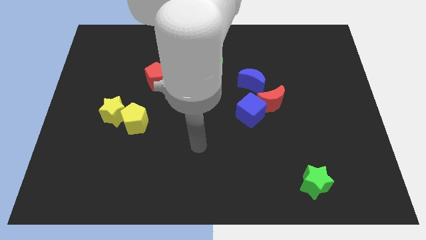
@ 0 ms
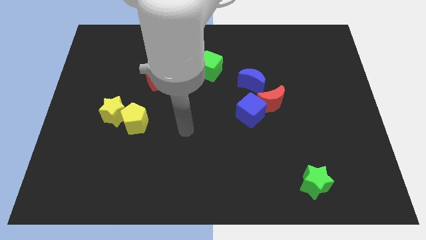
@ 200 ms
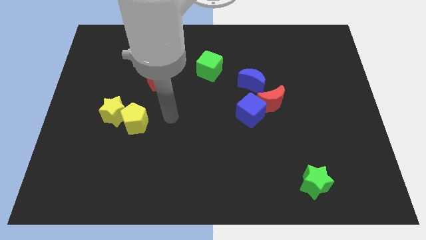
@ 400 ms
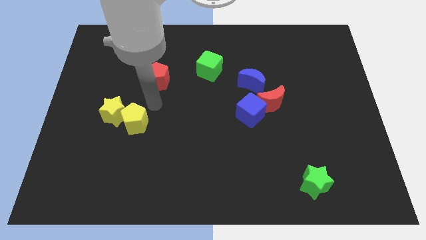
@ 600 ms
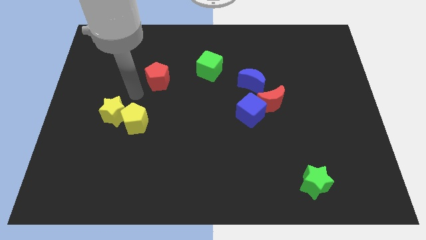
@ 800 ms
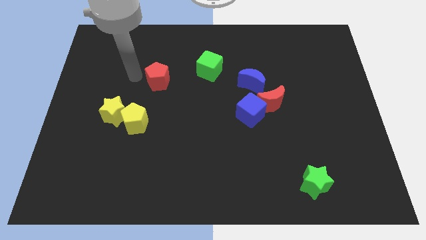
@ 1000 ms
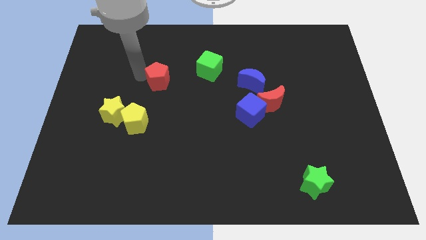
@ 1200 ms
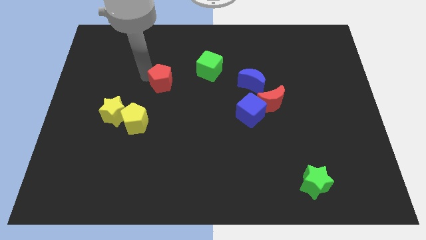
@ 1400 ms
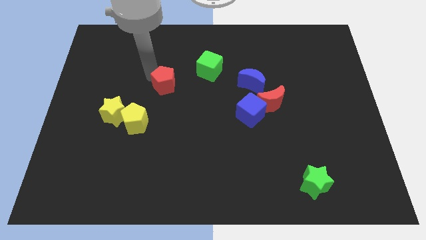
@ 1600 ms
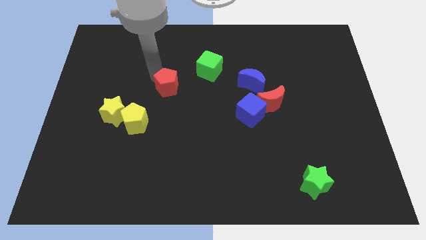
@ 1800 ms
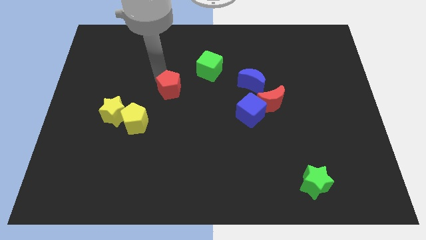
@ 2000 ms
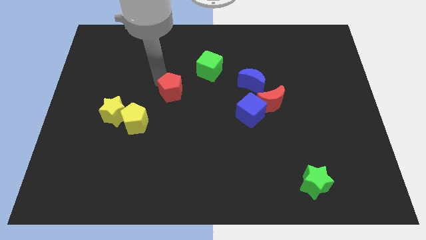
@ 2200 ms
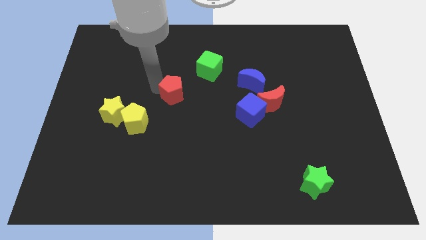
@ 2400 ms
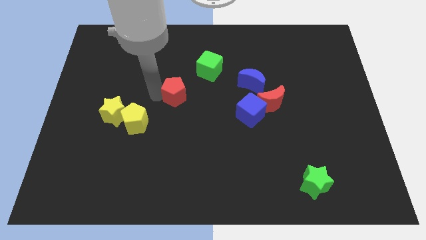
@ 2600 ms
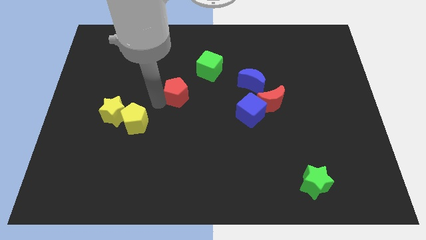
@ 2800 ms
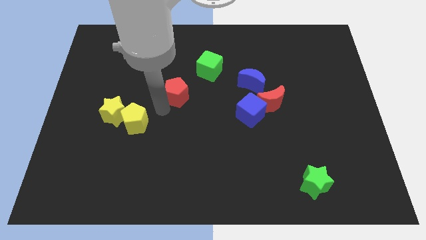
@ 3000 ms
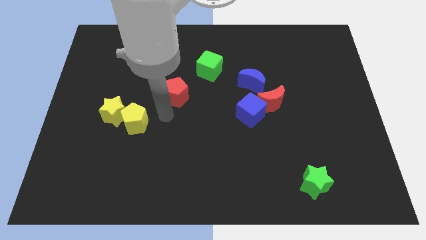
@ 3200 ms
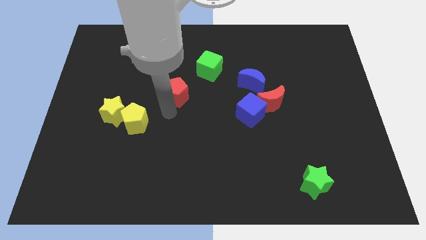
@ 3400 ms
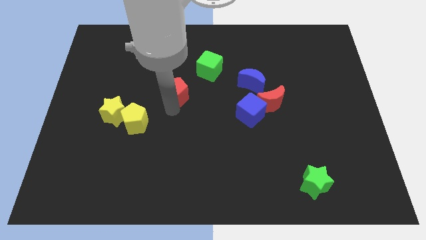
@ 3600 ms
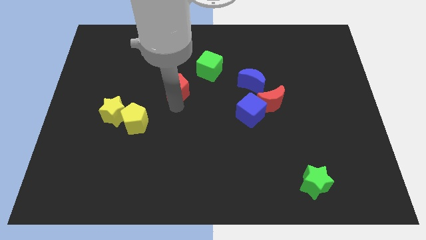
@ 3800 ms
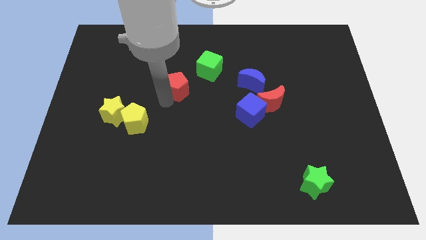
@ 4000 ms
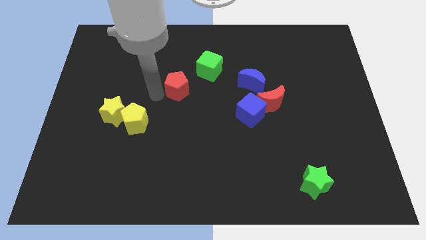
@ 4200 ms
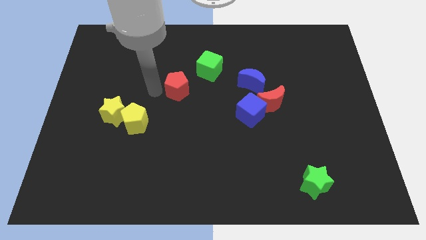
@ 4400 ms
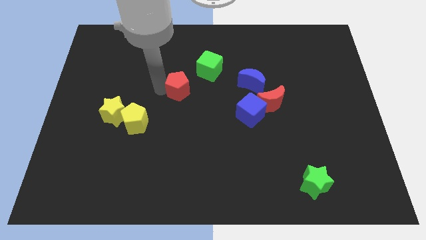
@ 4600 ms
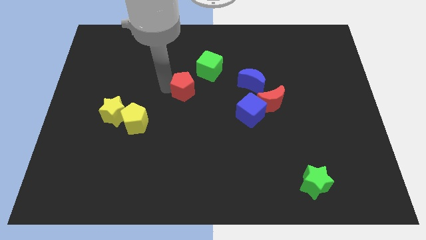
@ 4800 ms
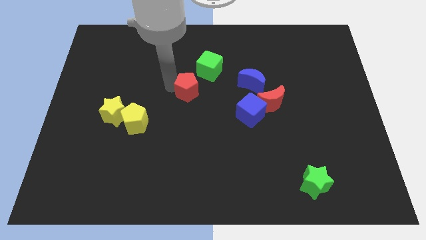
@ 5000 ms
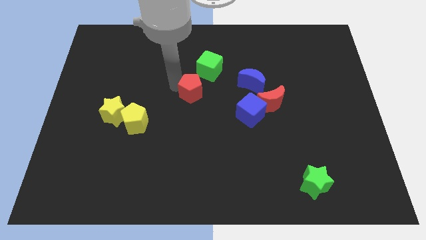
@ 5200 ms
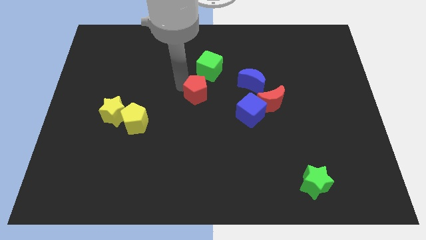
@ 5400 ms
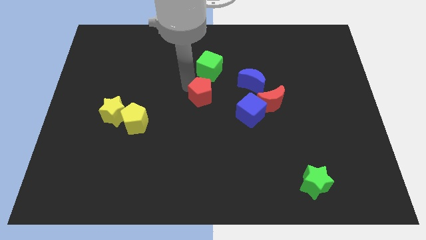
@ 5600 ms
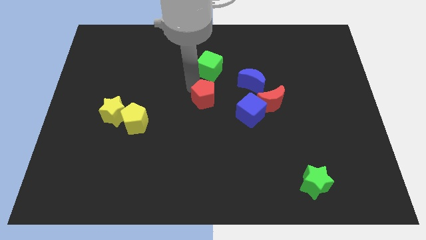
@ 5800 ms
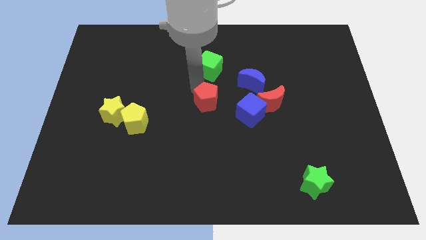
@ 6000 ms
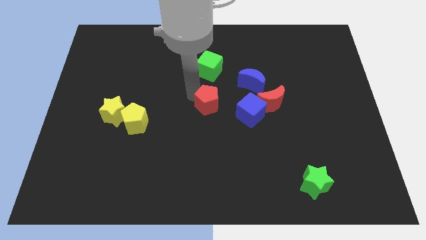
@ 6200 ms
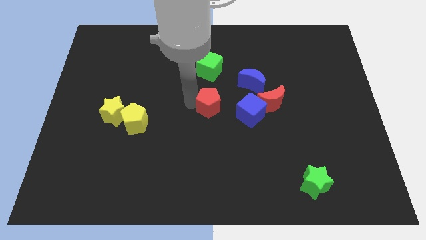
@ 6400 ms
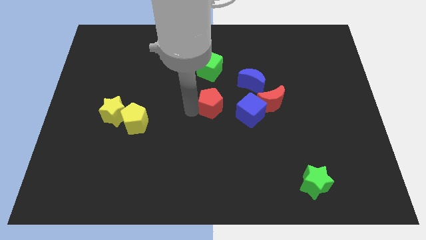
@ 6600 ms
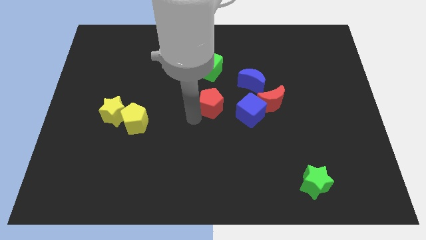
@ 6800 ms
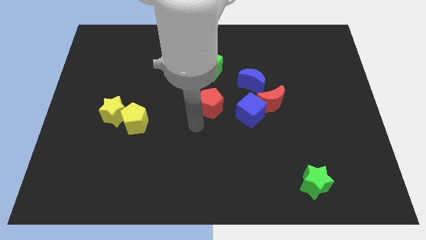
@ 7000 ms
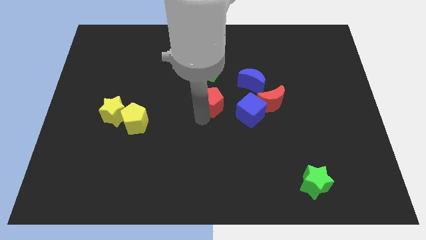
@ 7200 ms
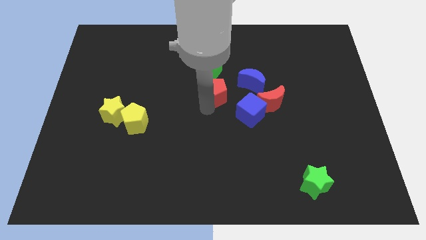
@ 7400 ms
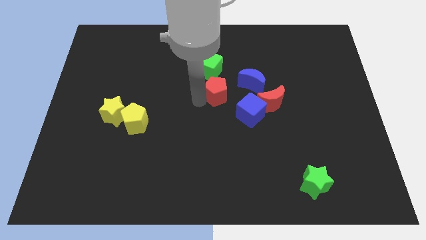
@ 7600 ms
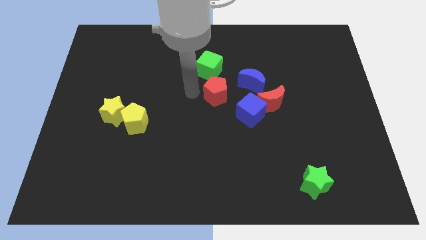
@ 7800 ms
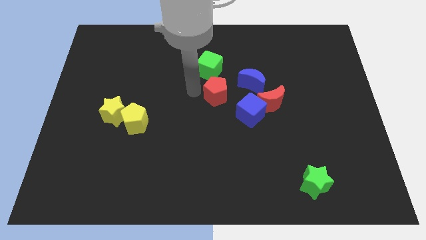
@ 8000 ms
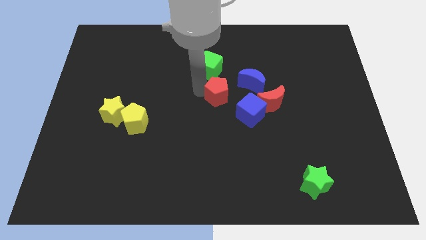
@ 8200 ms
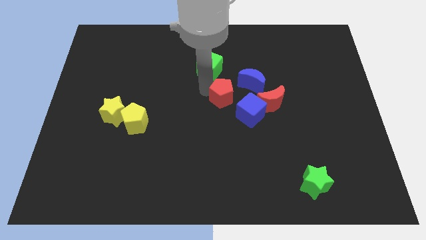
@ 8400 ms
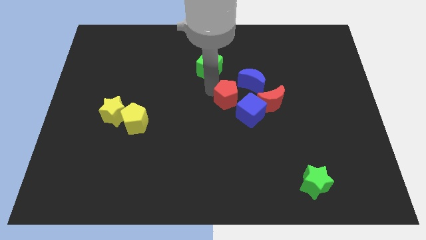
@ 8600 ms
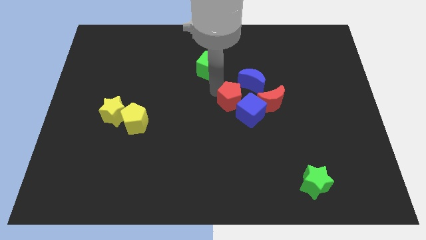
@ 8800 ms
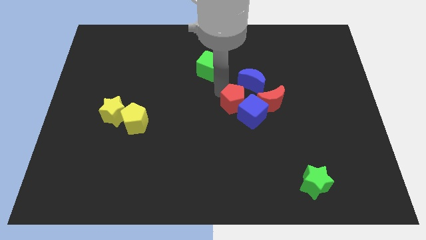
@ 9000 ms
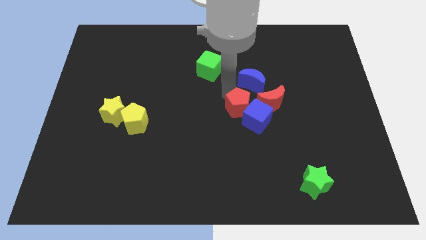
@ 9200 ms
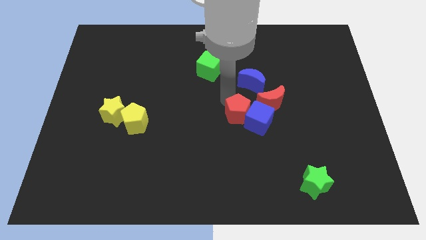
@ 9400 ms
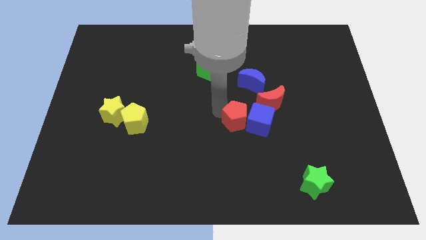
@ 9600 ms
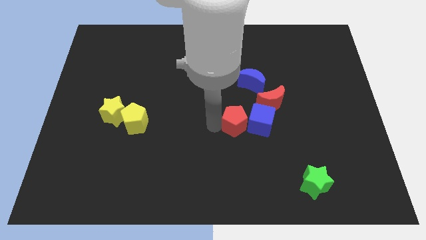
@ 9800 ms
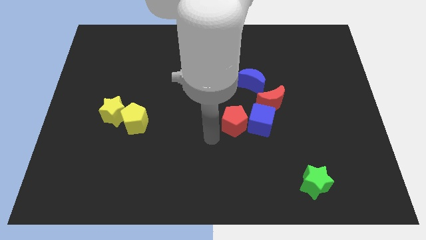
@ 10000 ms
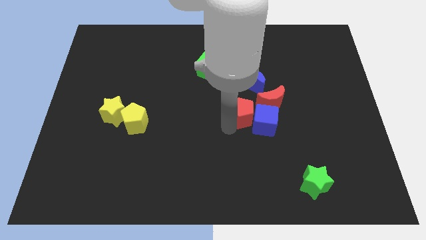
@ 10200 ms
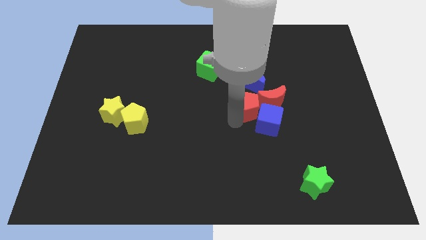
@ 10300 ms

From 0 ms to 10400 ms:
slide the red pentagon next to the red moon

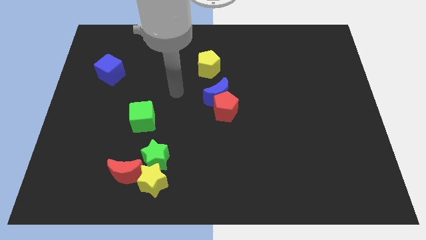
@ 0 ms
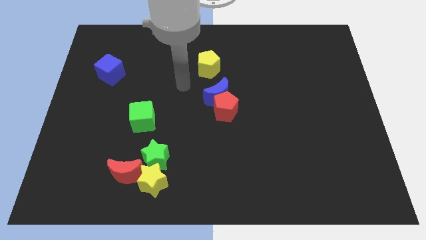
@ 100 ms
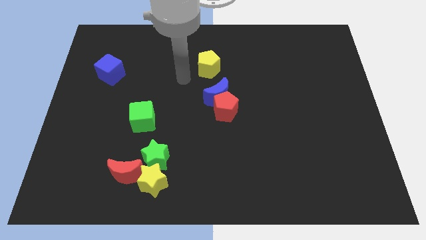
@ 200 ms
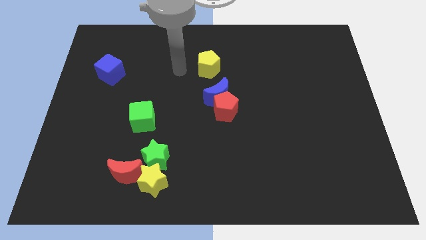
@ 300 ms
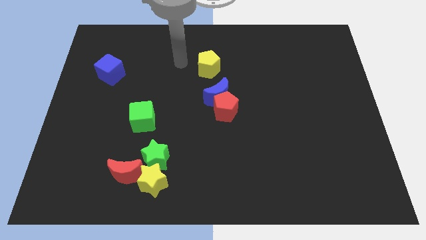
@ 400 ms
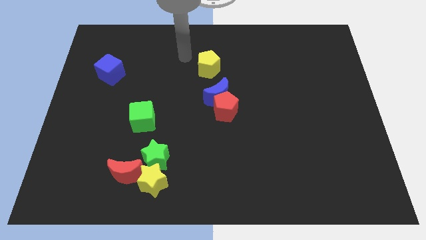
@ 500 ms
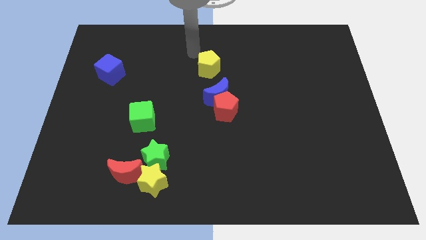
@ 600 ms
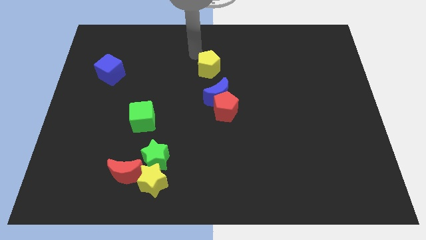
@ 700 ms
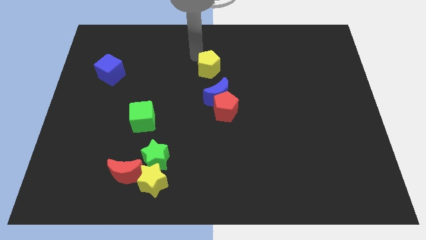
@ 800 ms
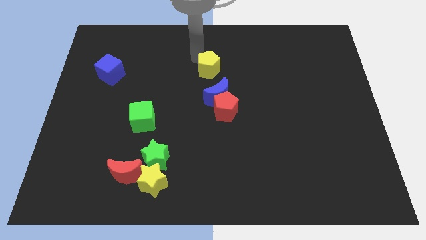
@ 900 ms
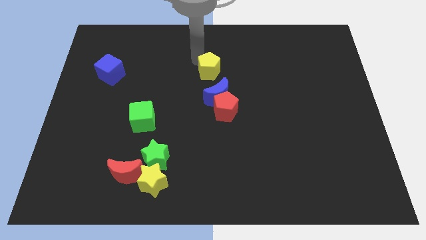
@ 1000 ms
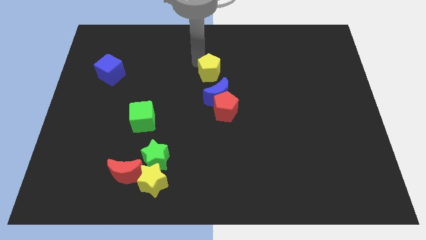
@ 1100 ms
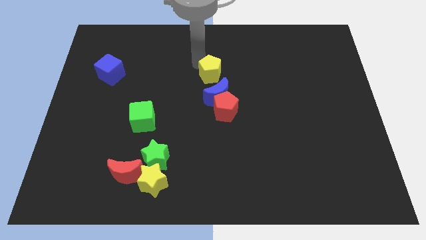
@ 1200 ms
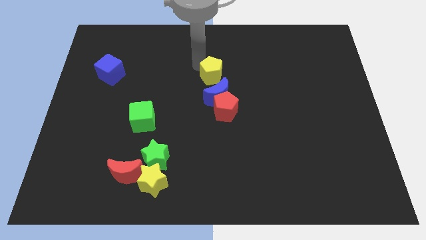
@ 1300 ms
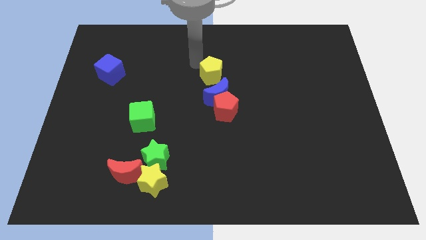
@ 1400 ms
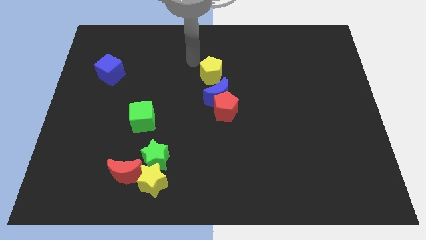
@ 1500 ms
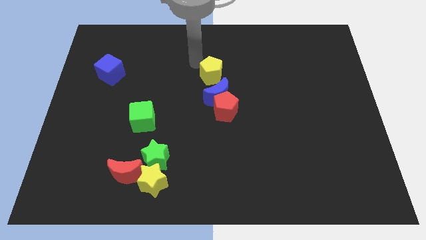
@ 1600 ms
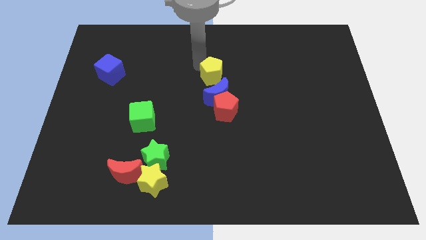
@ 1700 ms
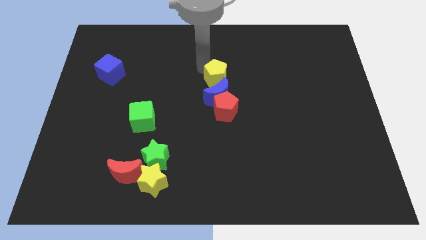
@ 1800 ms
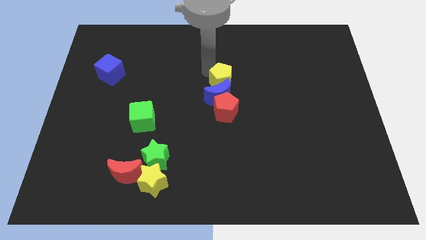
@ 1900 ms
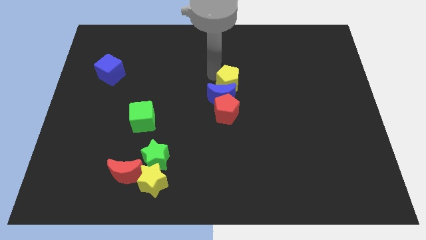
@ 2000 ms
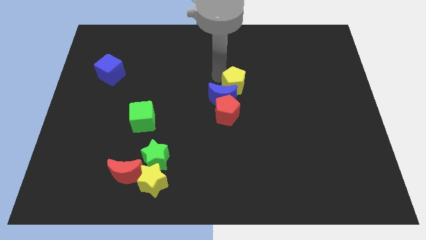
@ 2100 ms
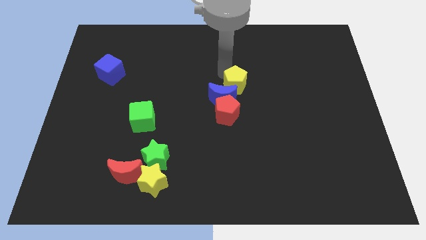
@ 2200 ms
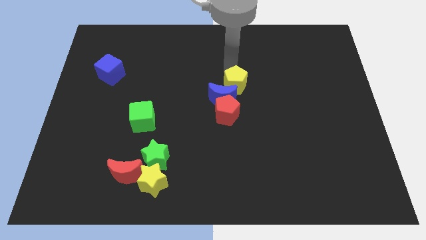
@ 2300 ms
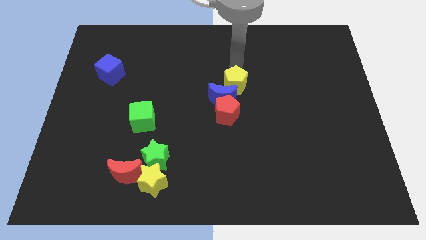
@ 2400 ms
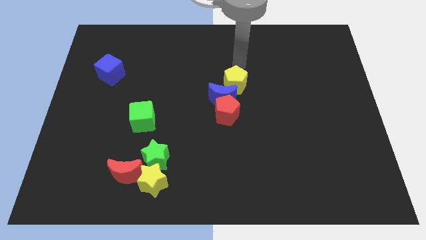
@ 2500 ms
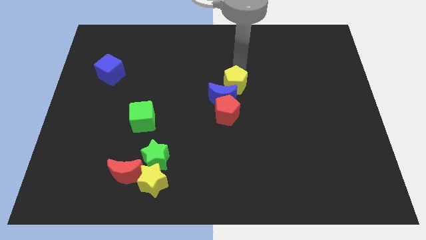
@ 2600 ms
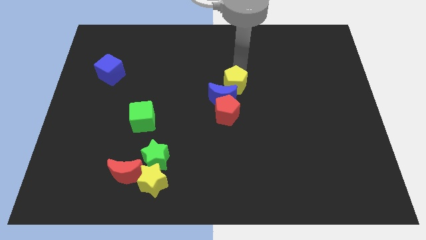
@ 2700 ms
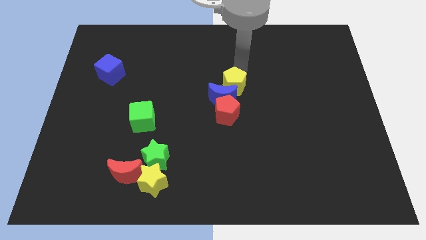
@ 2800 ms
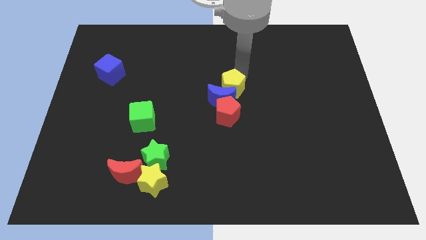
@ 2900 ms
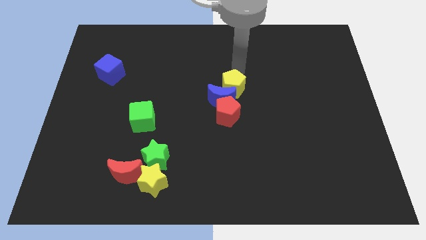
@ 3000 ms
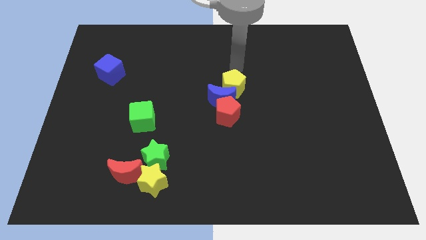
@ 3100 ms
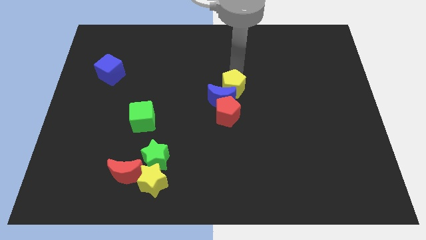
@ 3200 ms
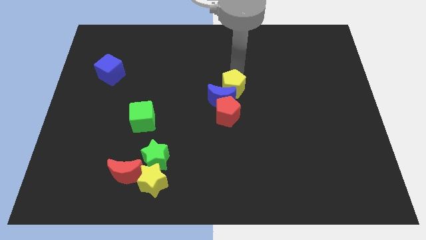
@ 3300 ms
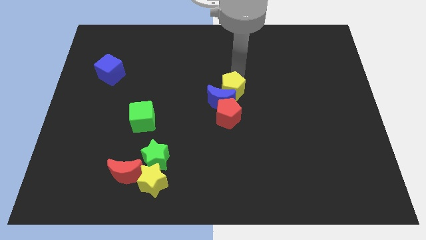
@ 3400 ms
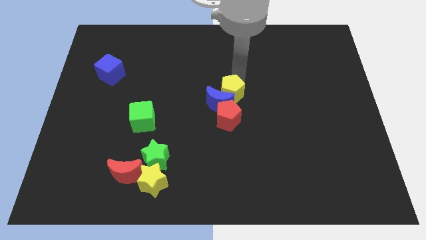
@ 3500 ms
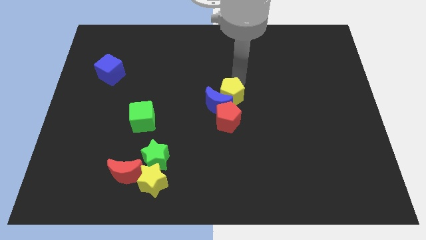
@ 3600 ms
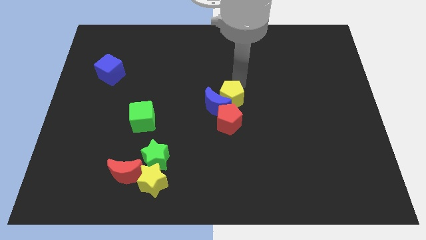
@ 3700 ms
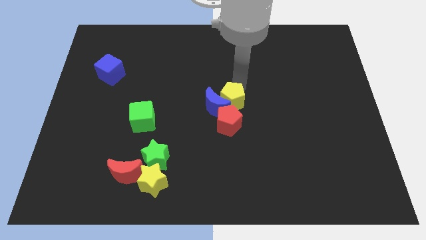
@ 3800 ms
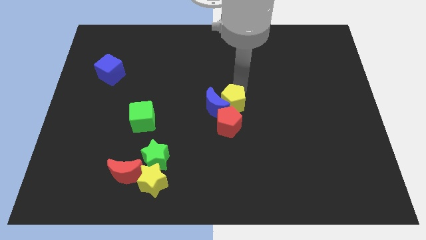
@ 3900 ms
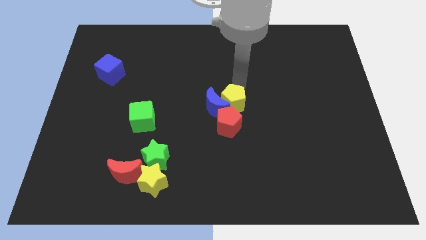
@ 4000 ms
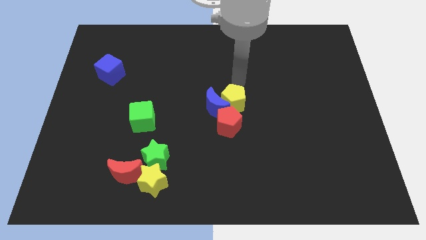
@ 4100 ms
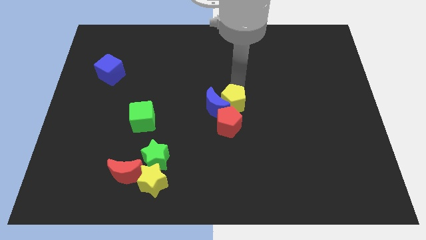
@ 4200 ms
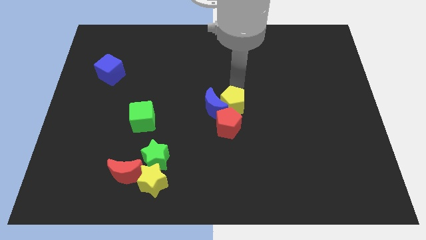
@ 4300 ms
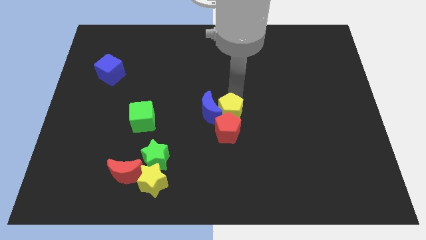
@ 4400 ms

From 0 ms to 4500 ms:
put the yellow pentagon towards the red pentagon
